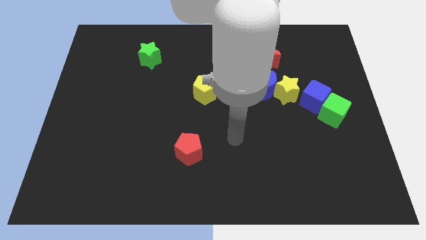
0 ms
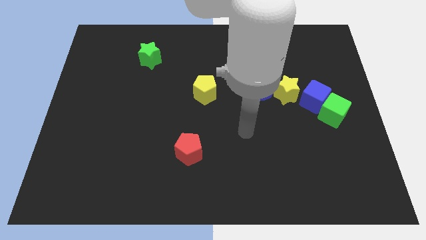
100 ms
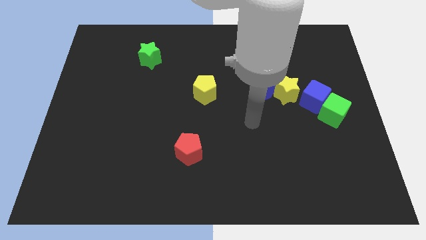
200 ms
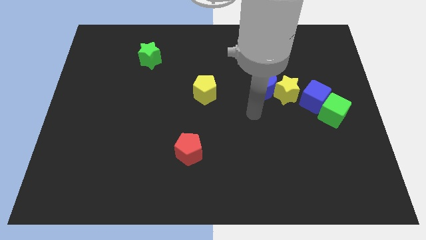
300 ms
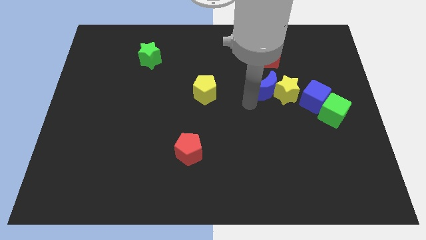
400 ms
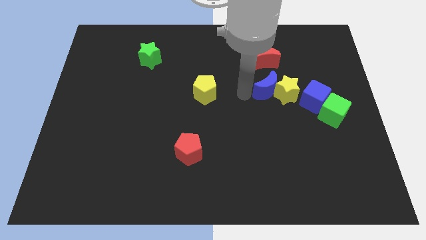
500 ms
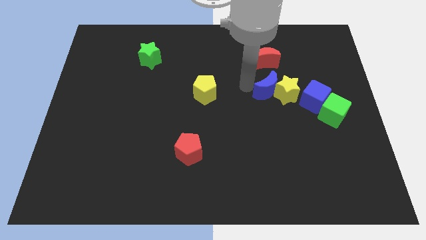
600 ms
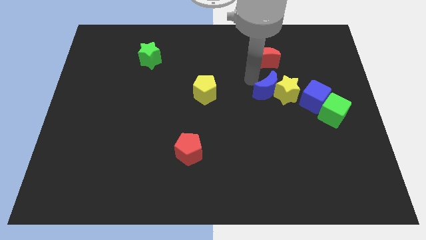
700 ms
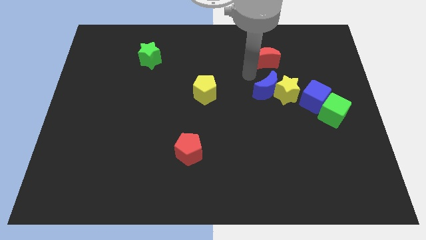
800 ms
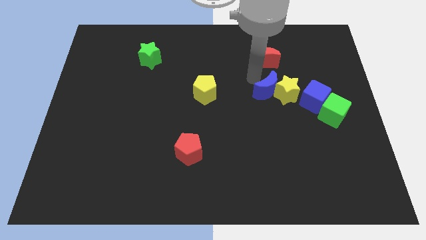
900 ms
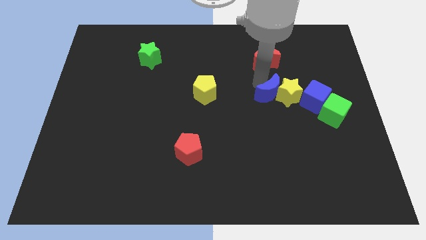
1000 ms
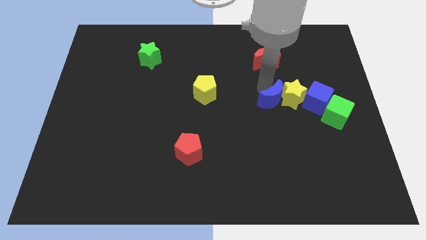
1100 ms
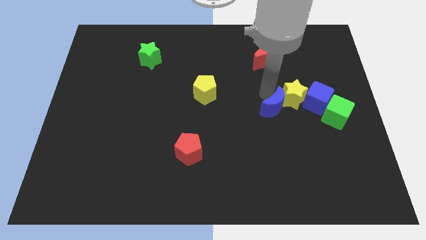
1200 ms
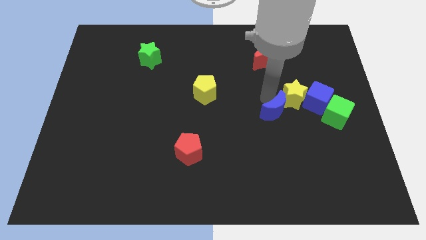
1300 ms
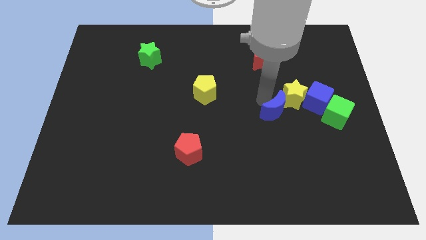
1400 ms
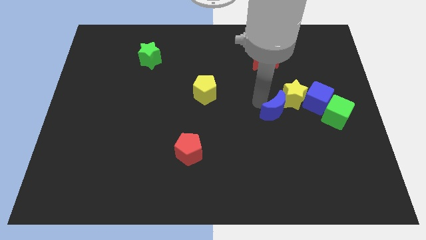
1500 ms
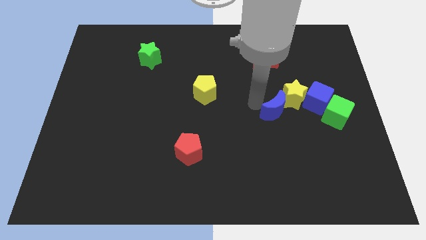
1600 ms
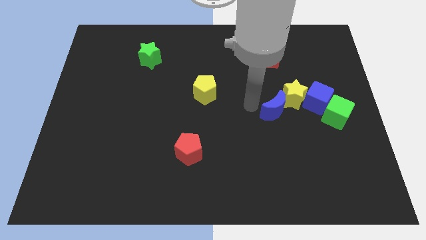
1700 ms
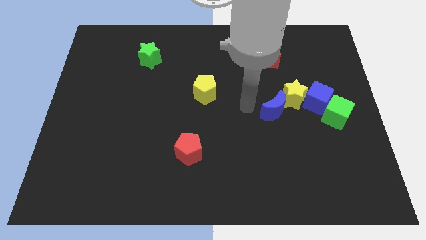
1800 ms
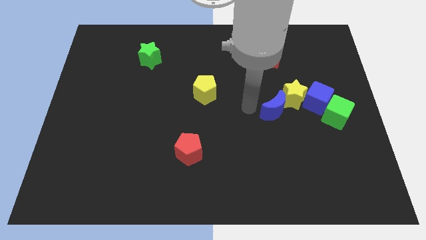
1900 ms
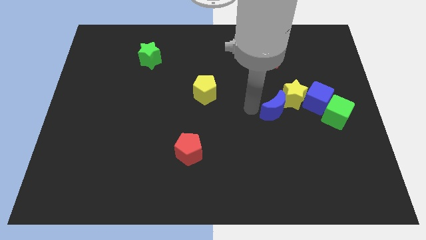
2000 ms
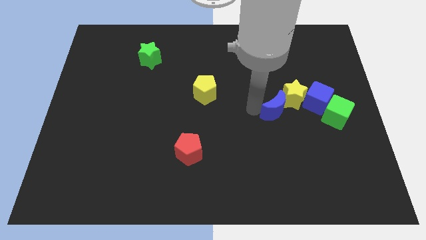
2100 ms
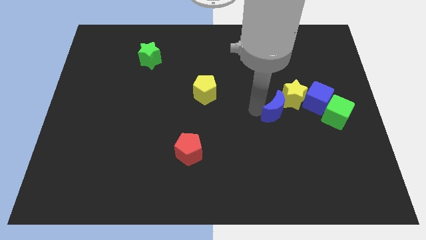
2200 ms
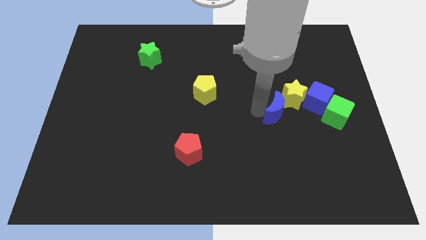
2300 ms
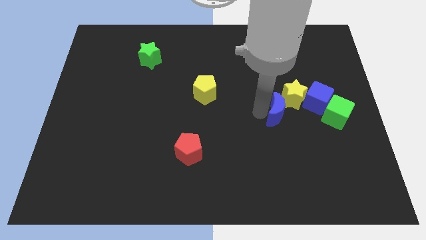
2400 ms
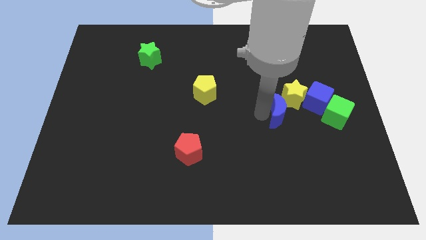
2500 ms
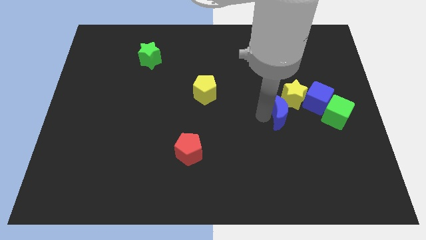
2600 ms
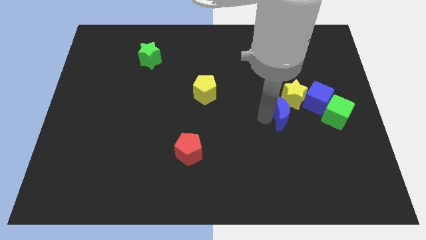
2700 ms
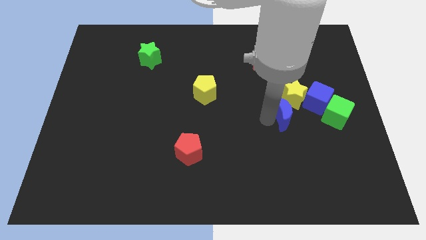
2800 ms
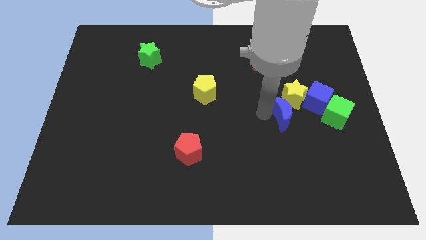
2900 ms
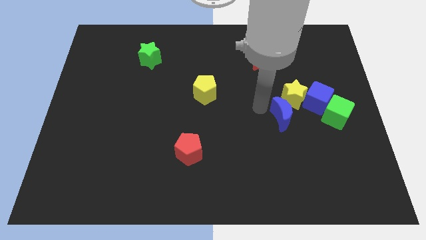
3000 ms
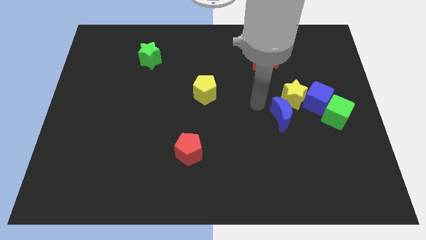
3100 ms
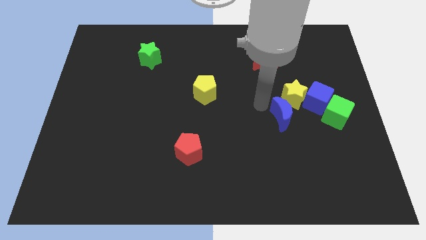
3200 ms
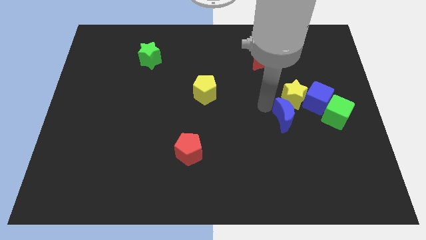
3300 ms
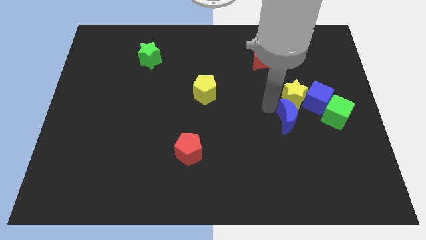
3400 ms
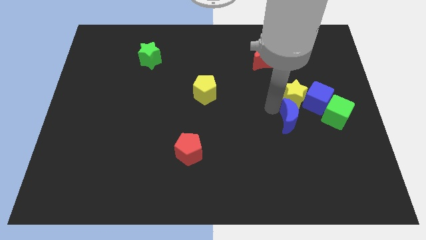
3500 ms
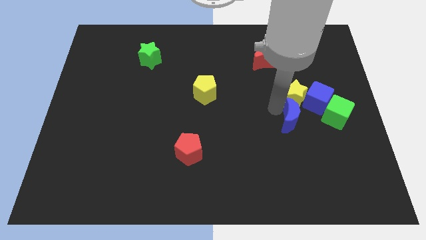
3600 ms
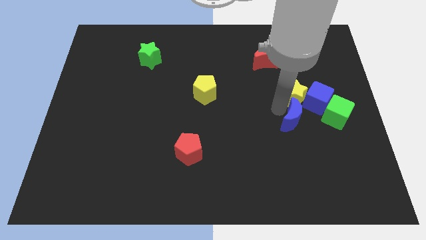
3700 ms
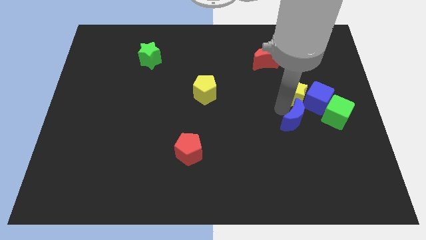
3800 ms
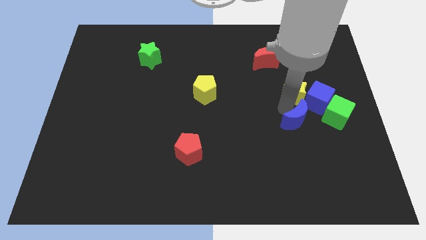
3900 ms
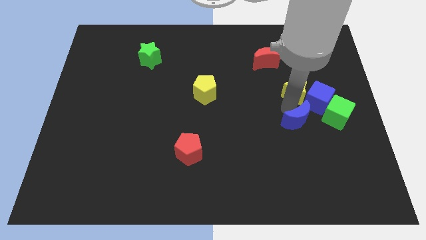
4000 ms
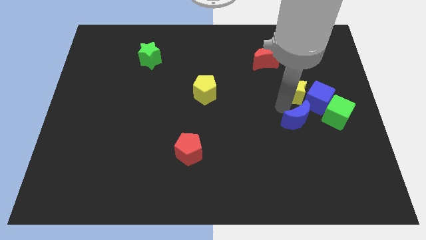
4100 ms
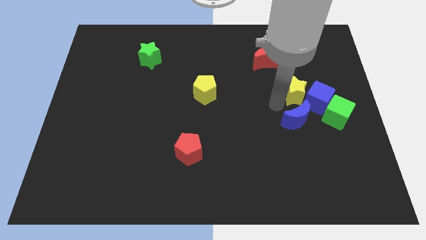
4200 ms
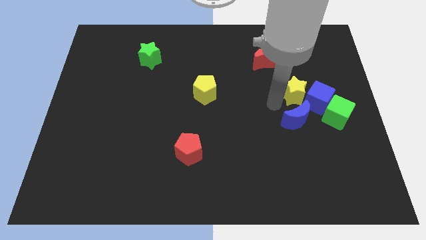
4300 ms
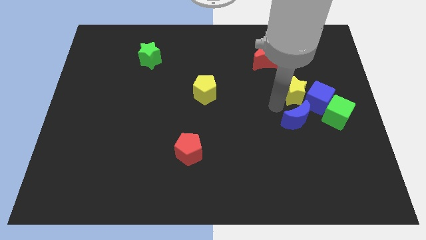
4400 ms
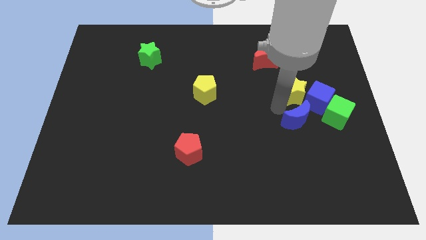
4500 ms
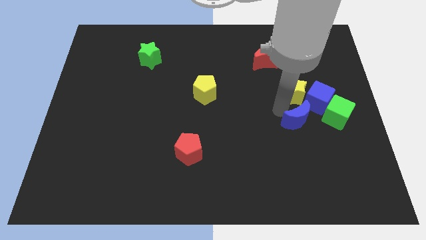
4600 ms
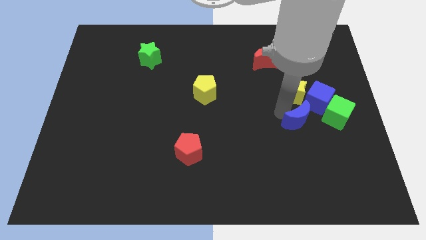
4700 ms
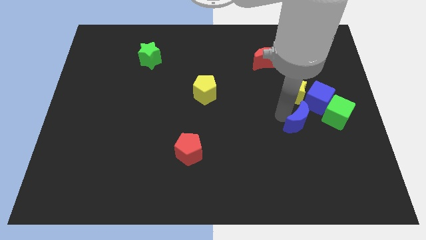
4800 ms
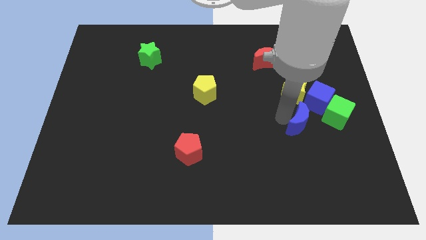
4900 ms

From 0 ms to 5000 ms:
move the blue moon to the bottom left side of the green cube

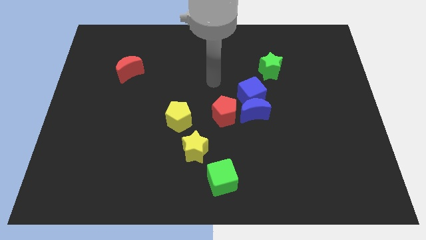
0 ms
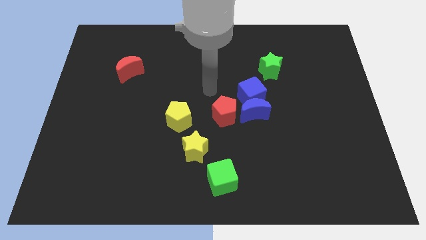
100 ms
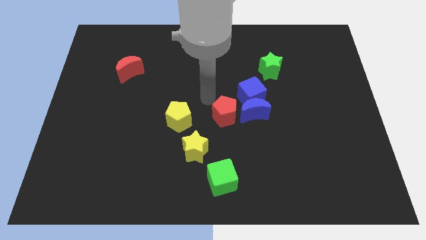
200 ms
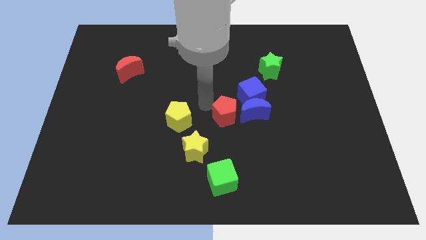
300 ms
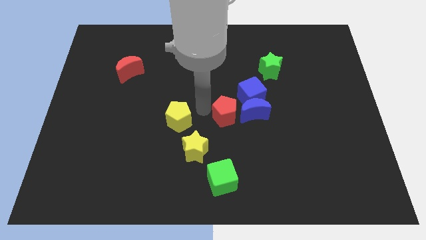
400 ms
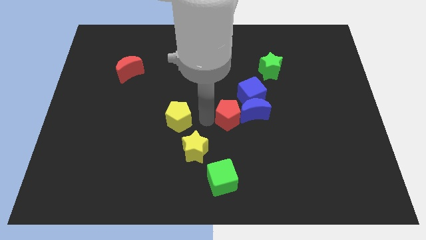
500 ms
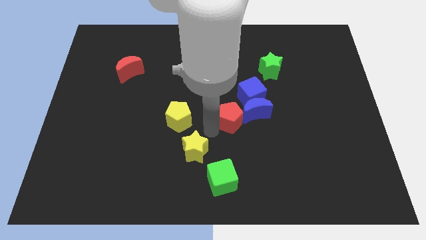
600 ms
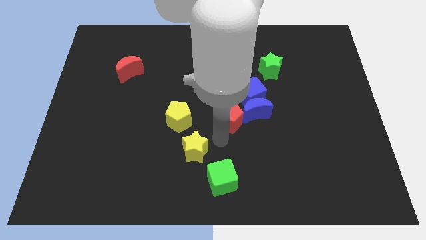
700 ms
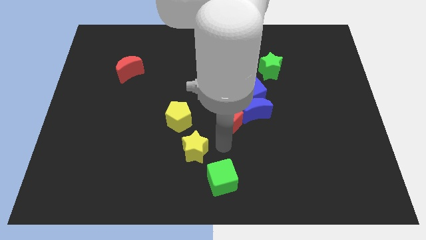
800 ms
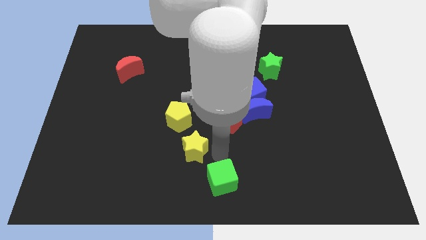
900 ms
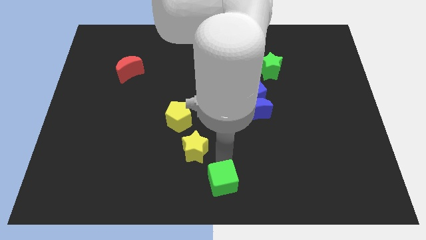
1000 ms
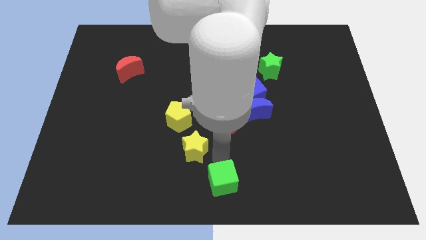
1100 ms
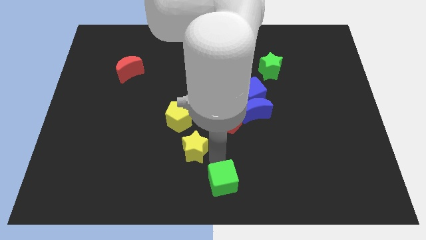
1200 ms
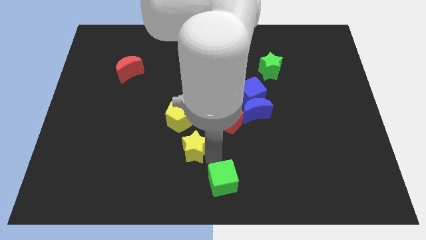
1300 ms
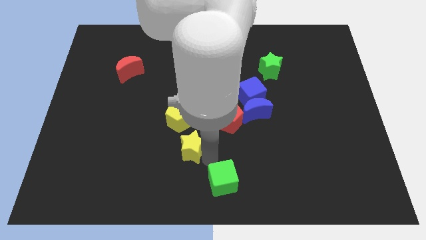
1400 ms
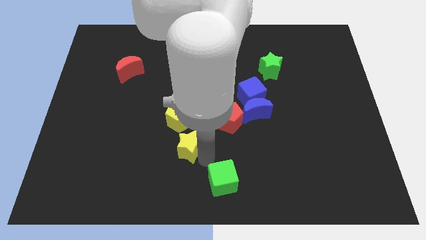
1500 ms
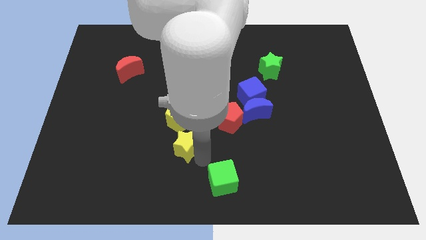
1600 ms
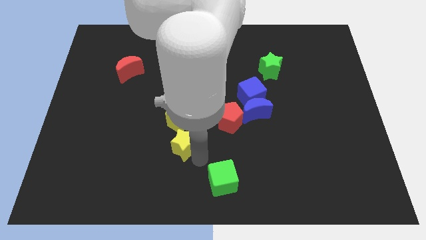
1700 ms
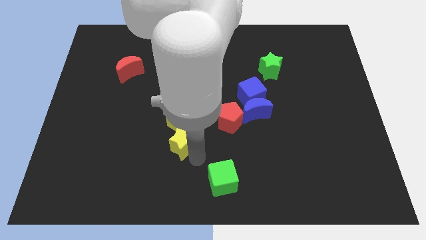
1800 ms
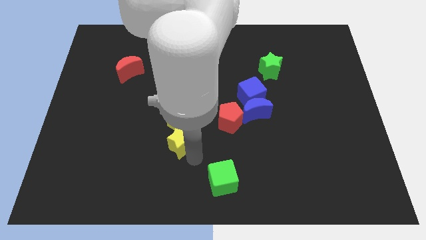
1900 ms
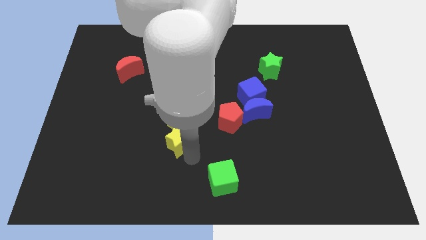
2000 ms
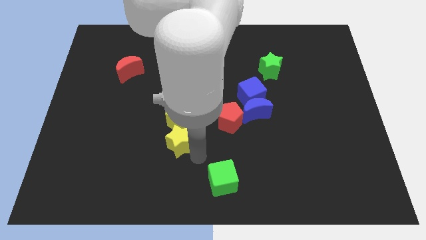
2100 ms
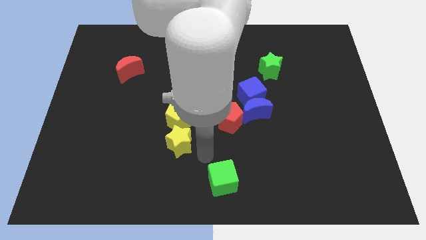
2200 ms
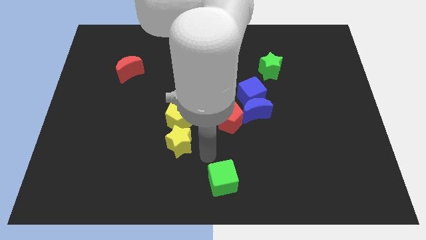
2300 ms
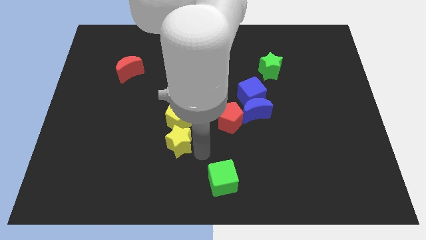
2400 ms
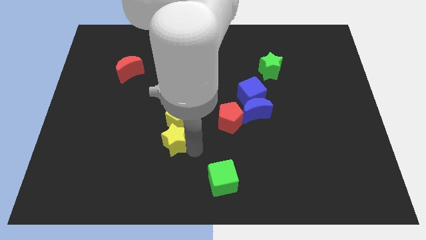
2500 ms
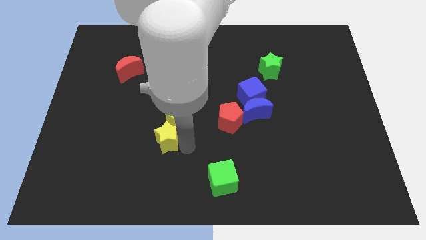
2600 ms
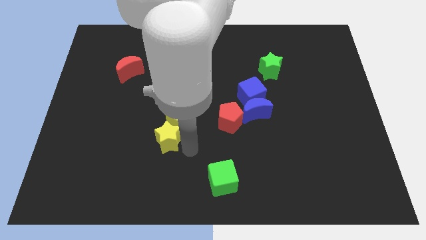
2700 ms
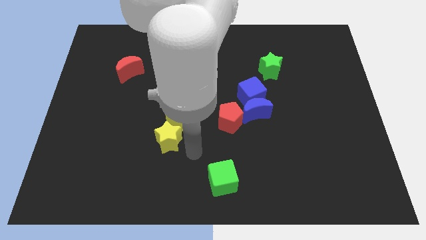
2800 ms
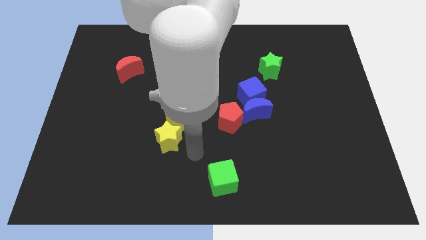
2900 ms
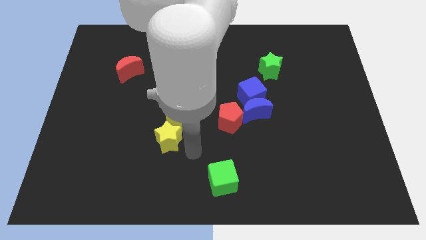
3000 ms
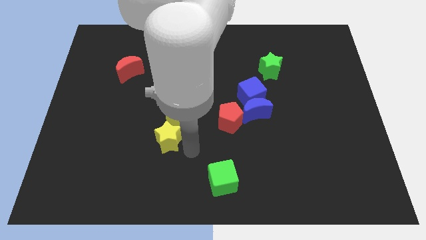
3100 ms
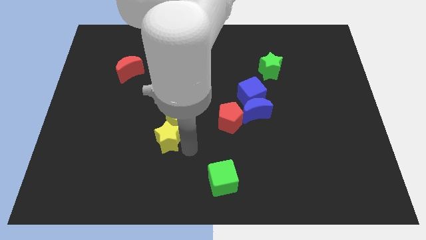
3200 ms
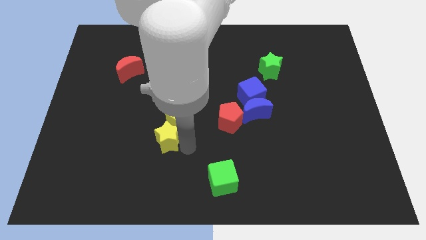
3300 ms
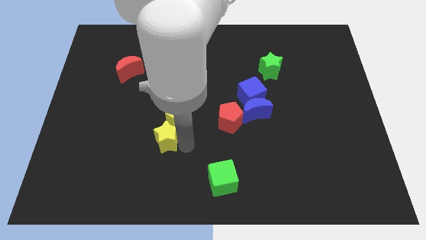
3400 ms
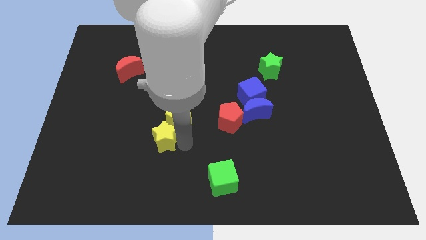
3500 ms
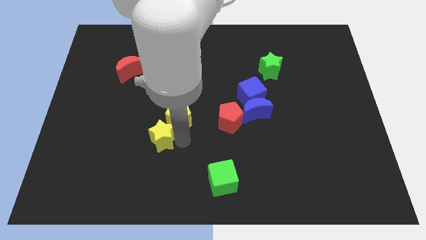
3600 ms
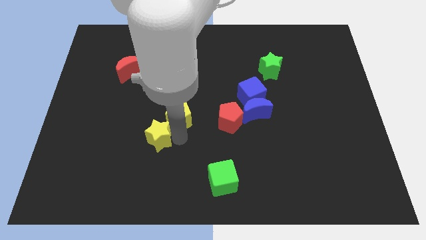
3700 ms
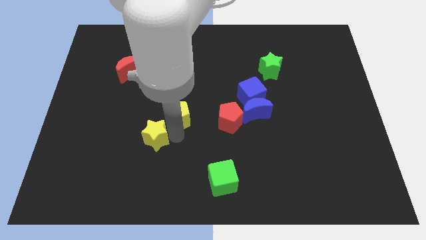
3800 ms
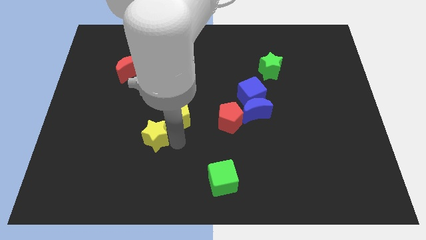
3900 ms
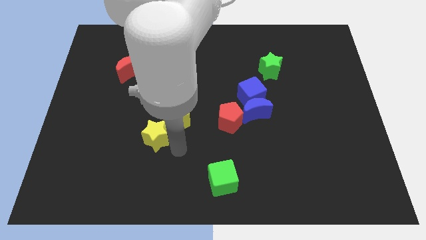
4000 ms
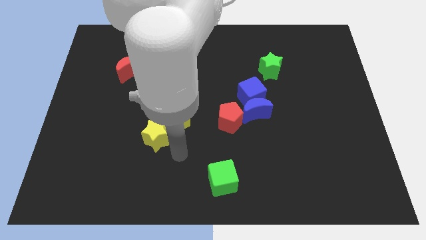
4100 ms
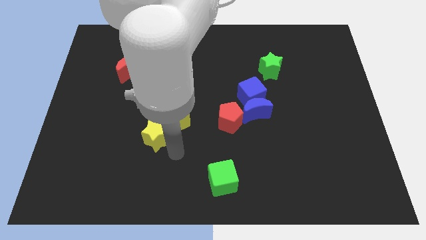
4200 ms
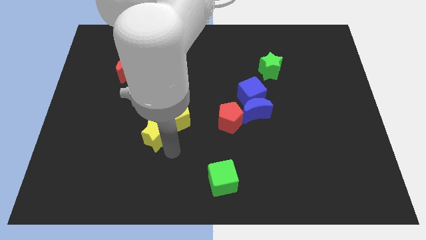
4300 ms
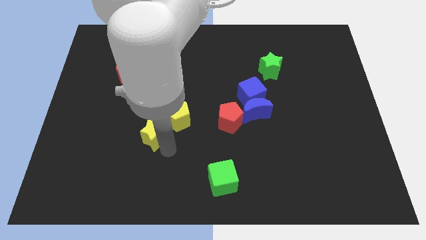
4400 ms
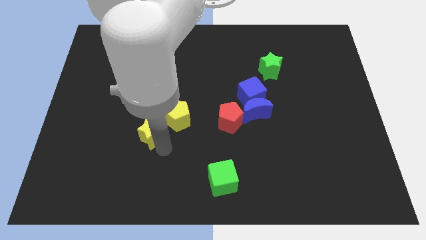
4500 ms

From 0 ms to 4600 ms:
slide the yellow star just left of the yellow pentagon
